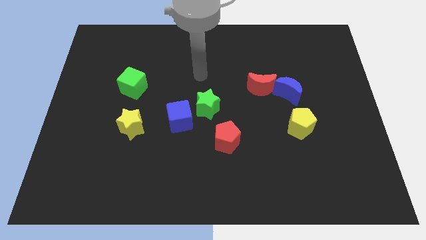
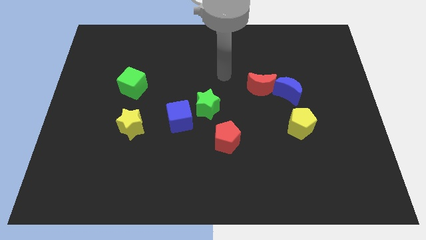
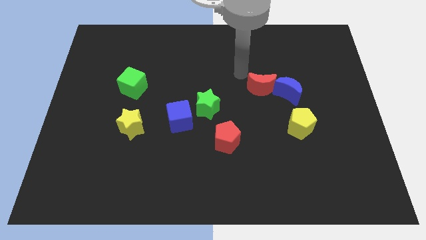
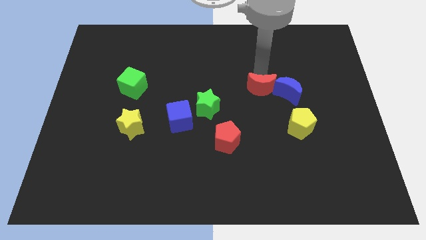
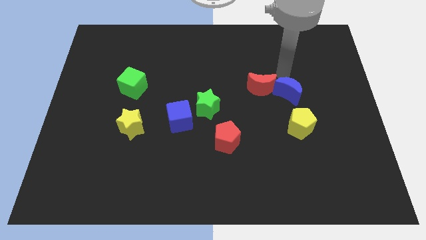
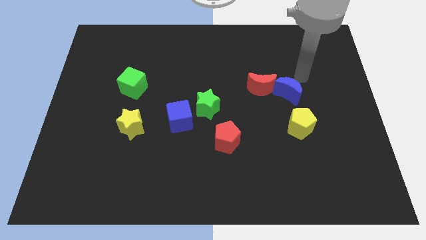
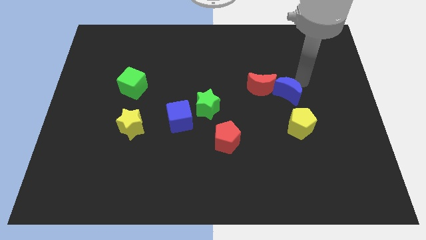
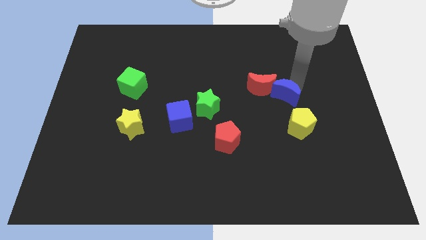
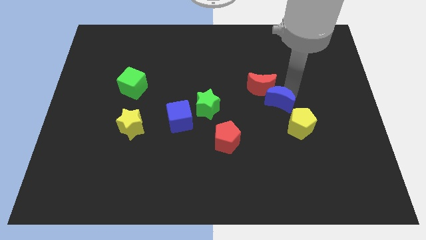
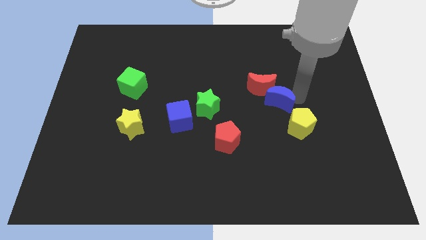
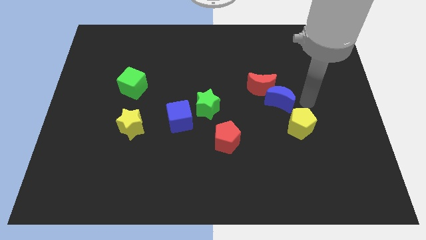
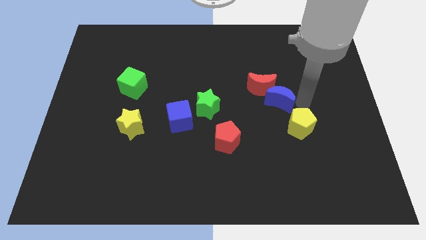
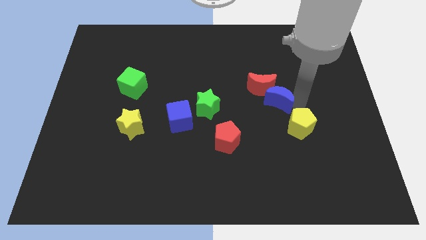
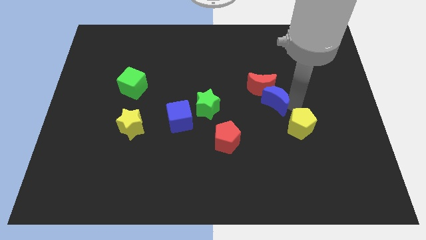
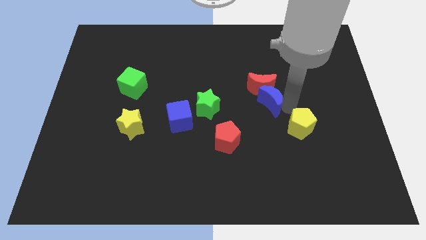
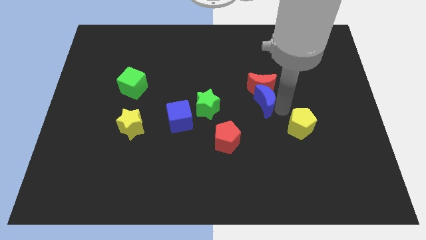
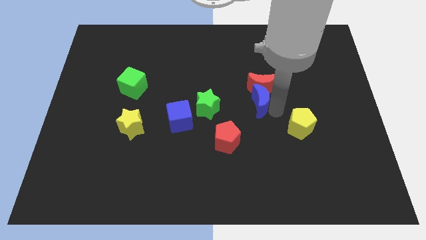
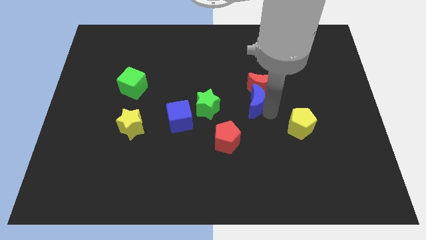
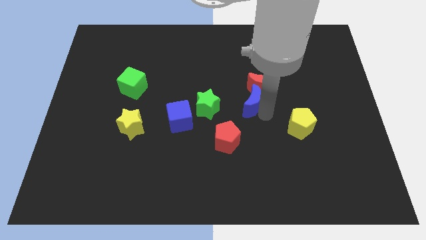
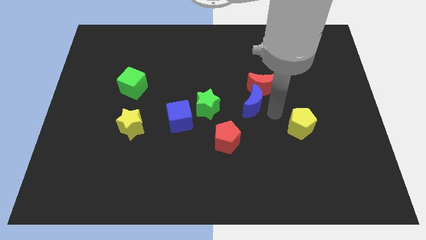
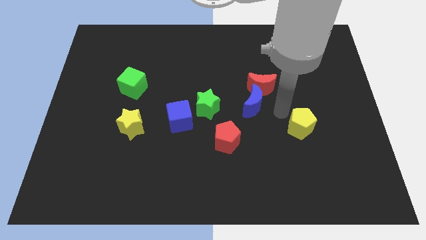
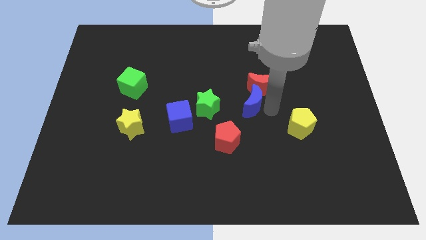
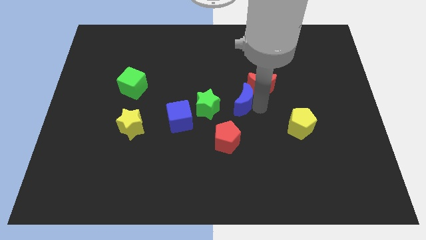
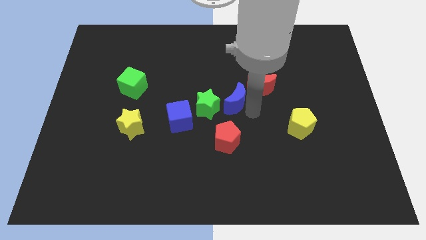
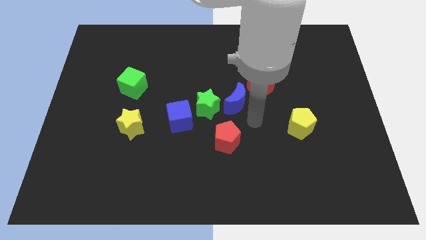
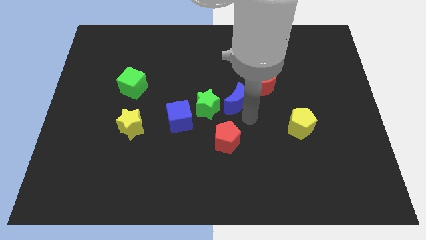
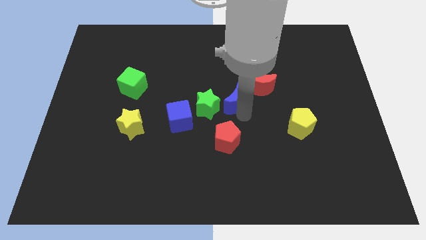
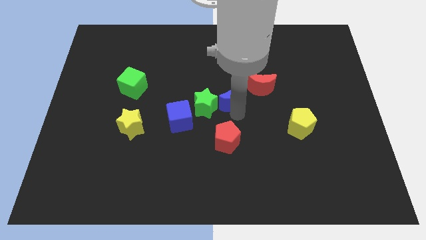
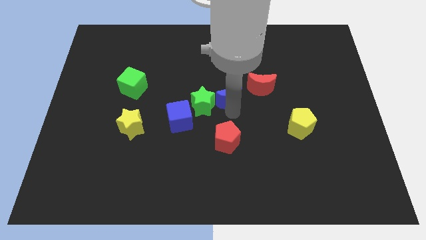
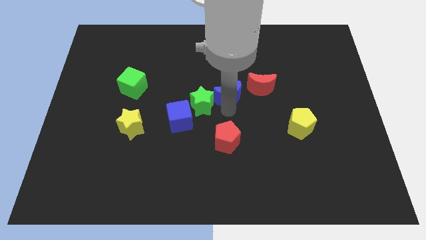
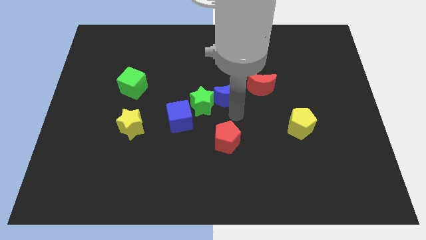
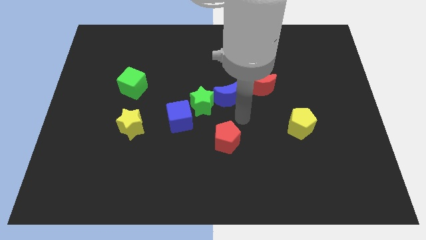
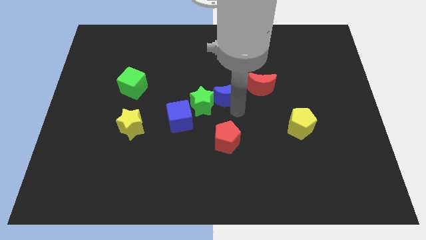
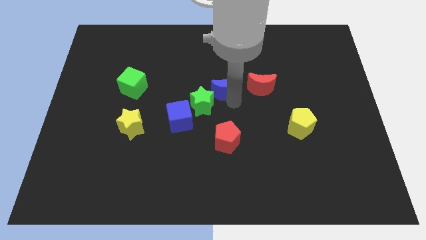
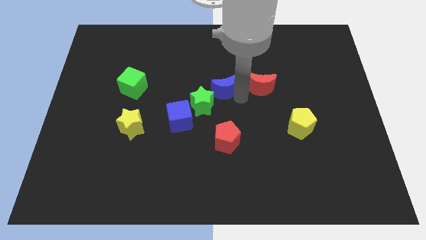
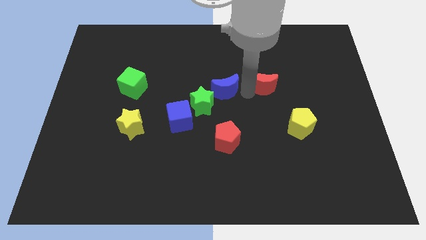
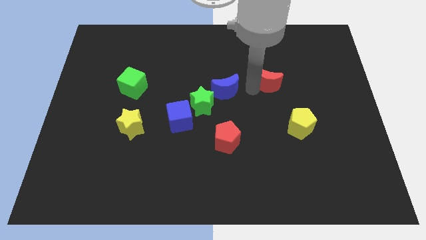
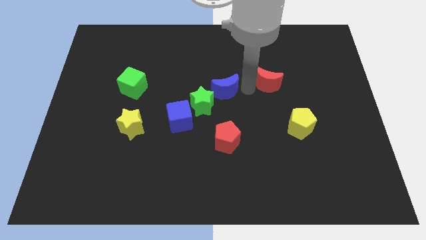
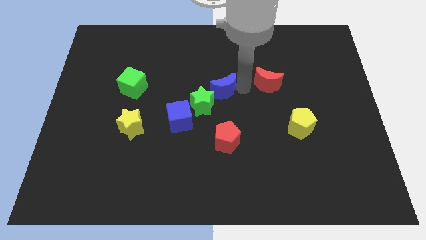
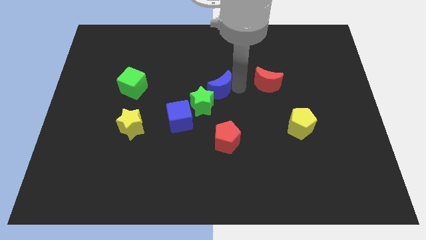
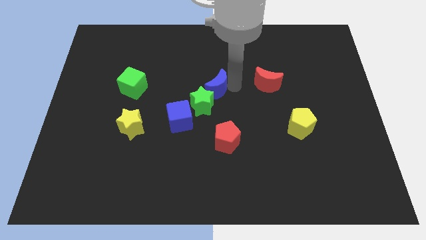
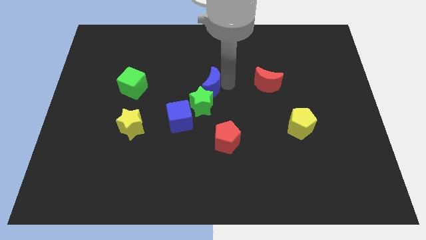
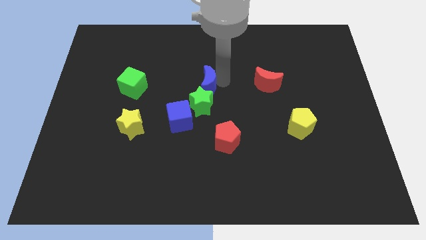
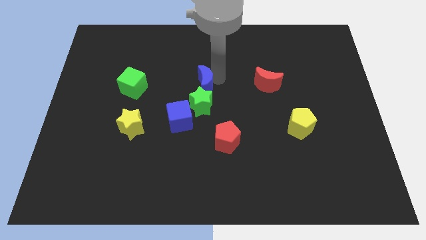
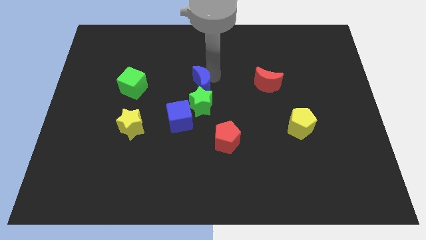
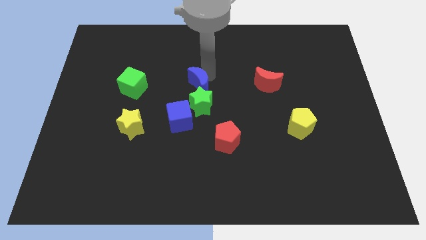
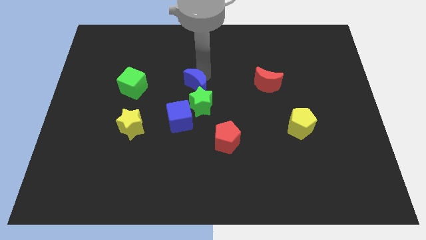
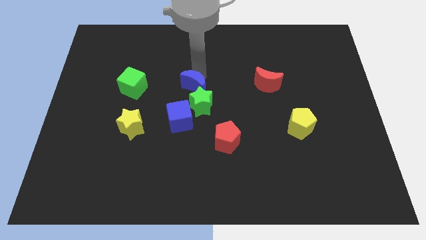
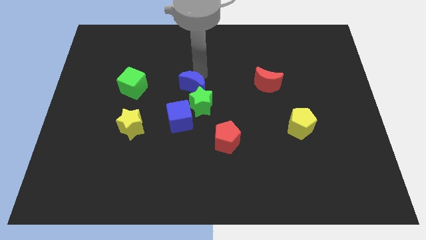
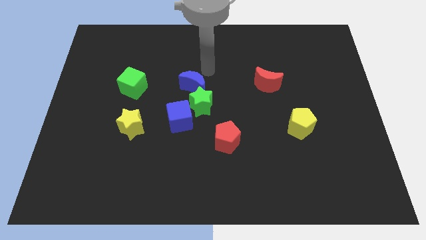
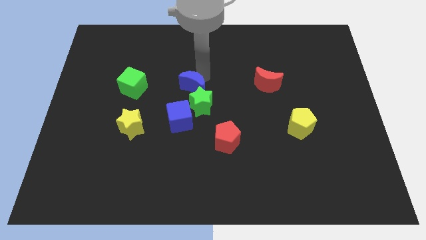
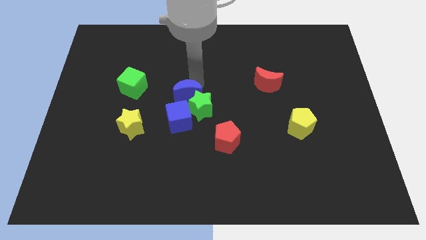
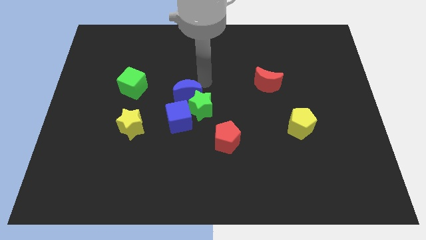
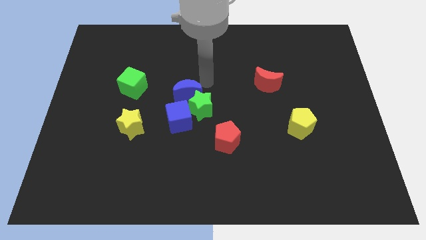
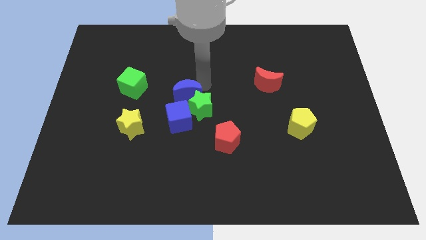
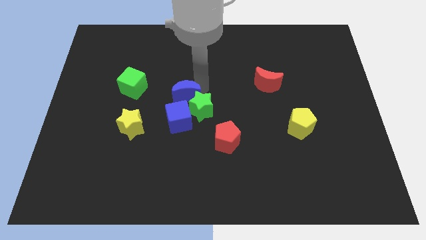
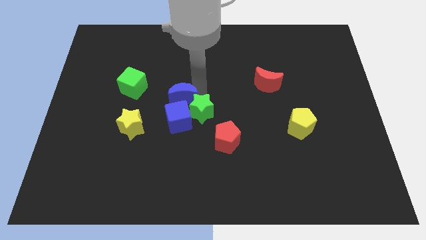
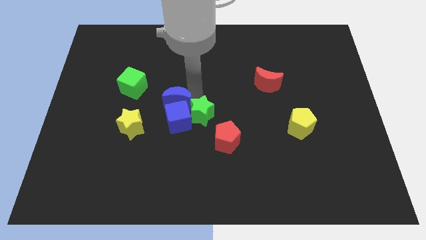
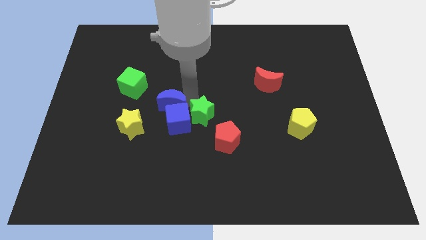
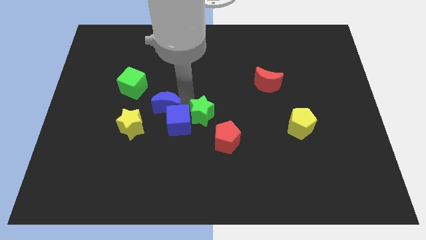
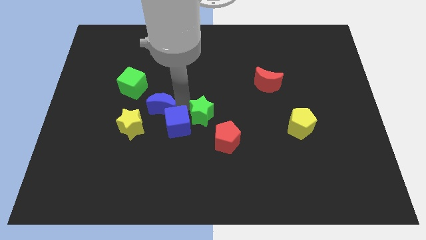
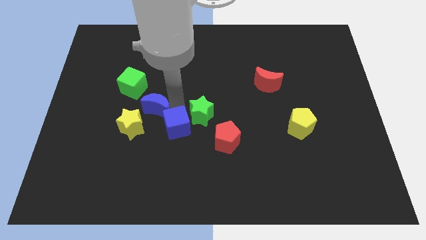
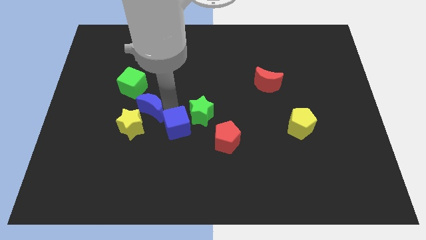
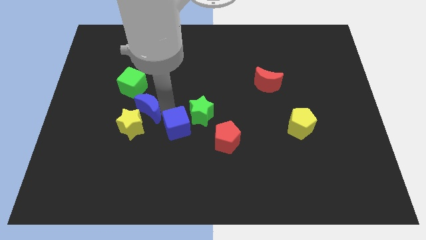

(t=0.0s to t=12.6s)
move the blue moon towards the yellow star

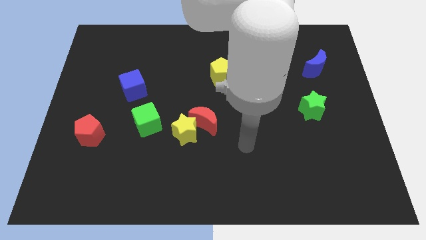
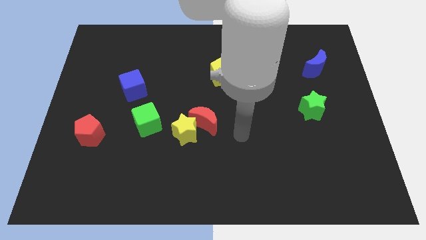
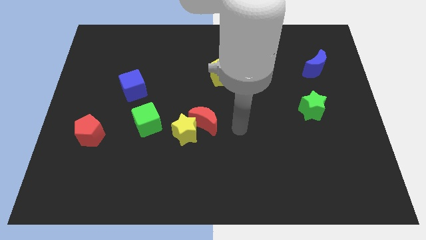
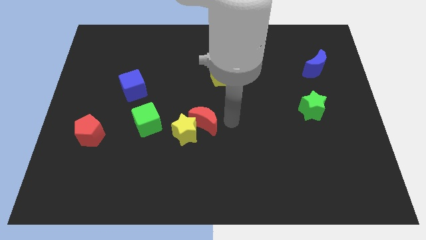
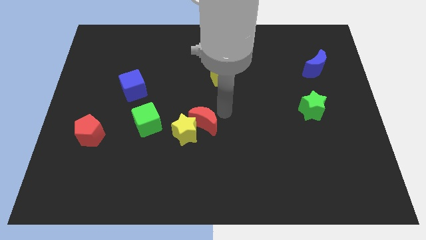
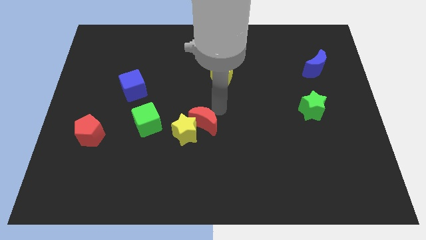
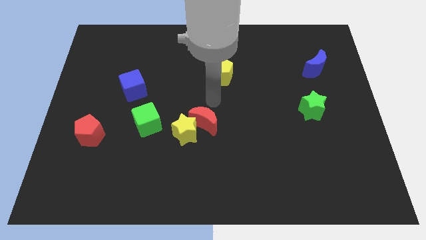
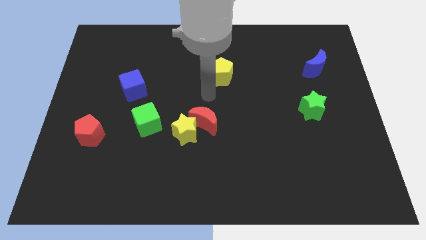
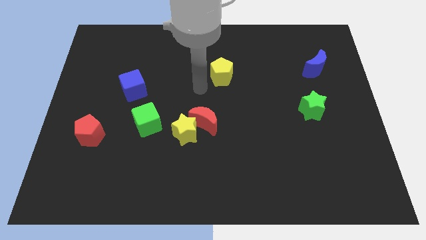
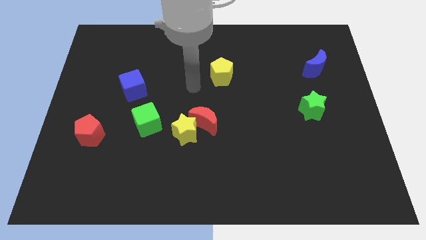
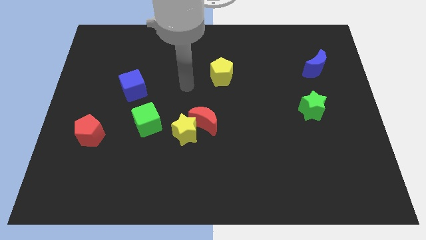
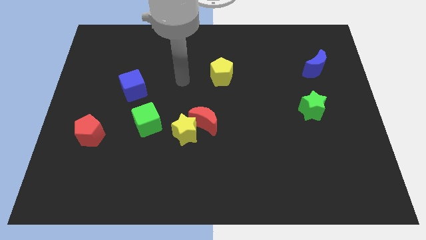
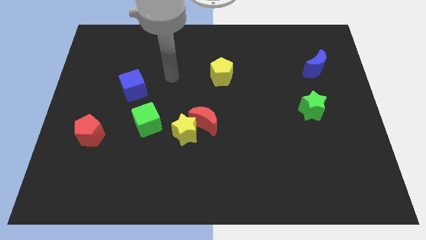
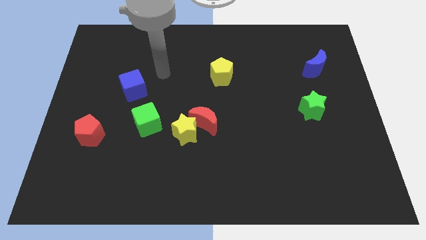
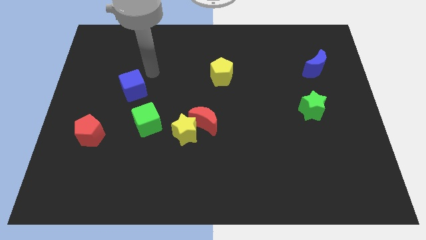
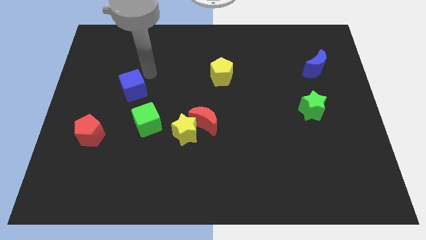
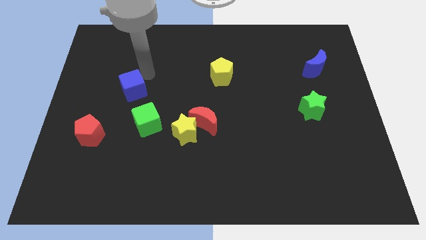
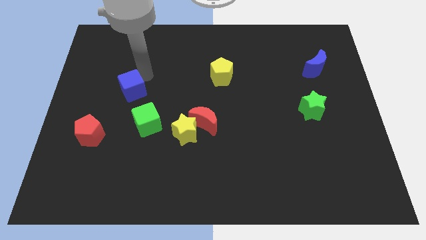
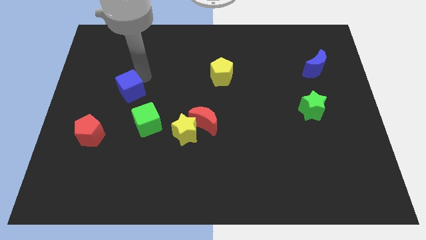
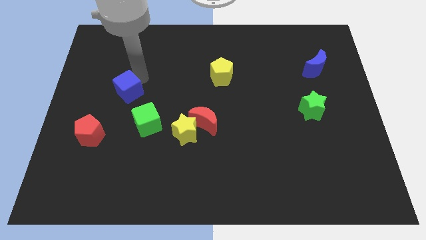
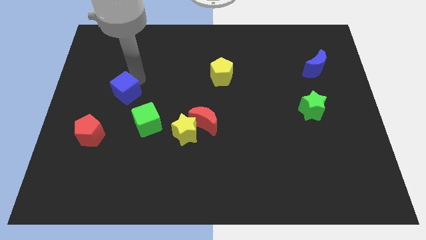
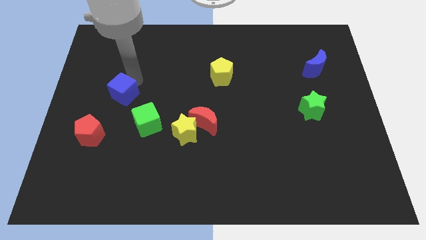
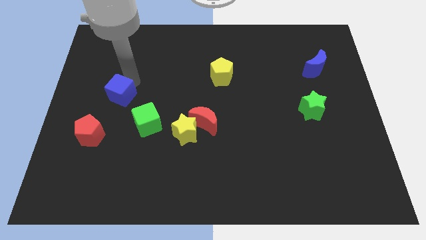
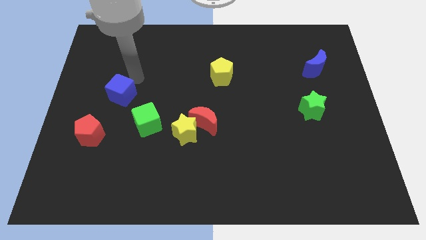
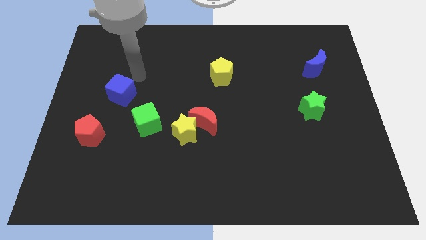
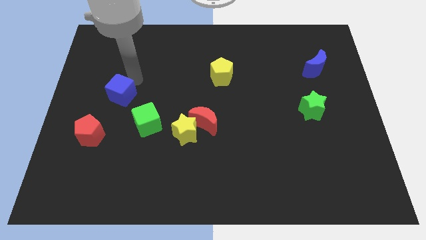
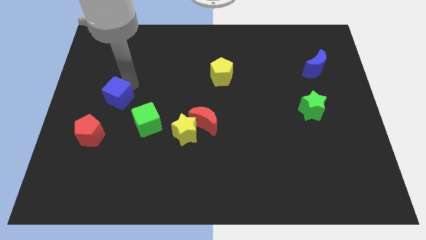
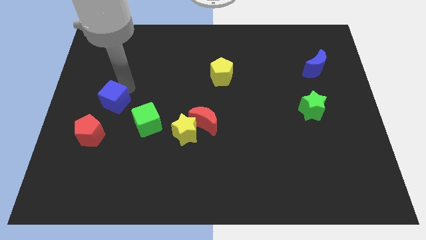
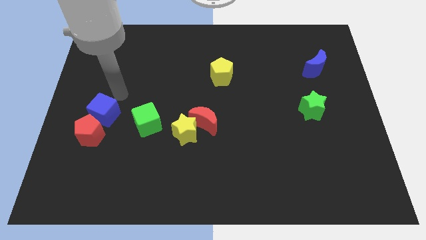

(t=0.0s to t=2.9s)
slide the blue cube to the red pentagon
